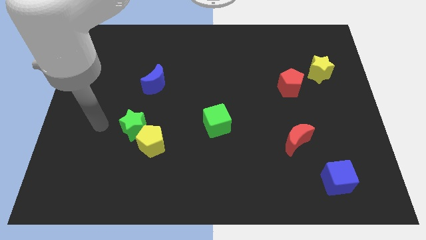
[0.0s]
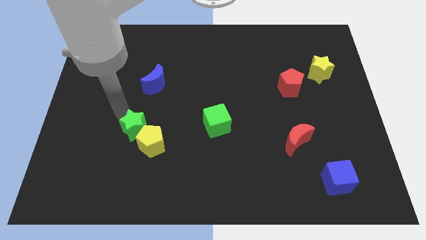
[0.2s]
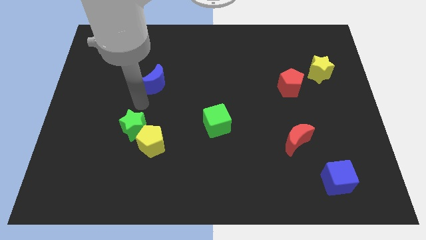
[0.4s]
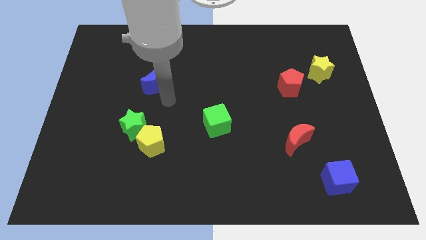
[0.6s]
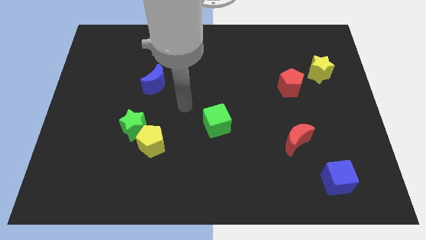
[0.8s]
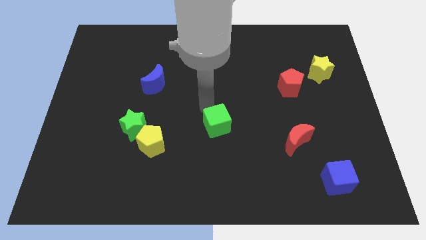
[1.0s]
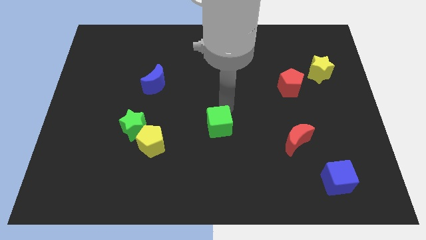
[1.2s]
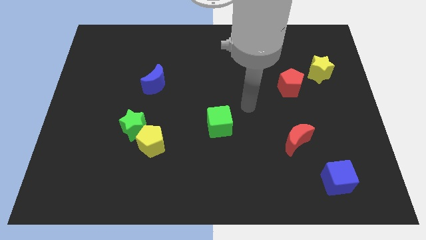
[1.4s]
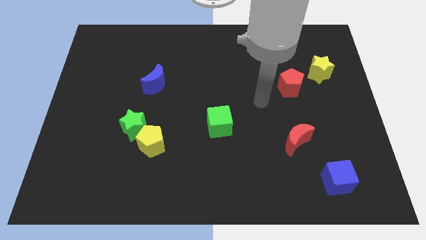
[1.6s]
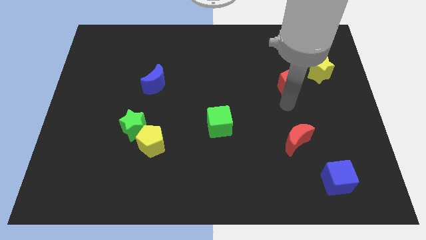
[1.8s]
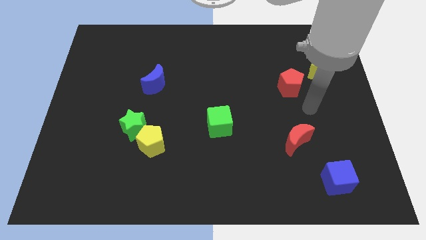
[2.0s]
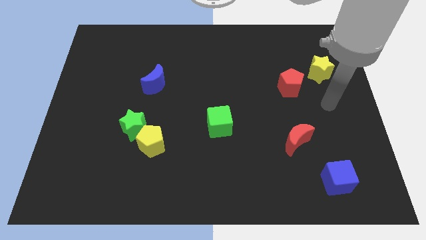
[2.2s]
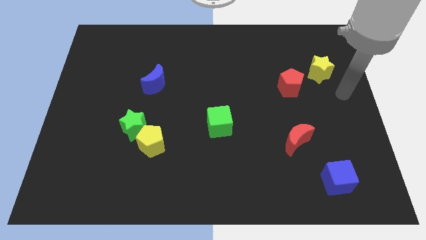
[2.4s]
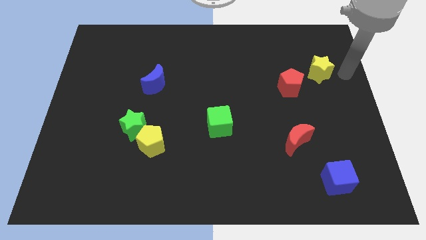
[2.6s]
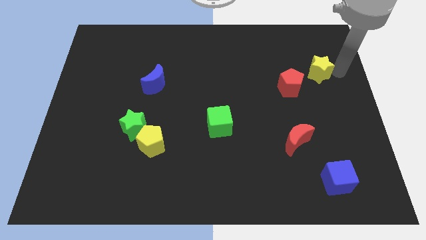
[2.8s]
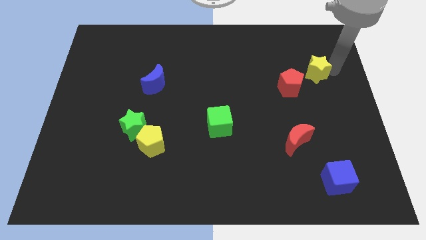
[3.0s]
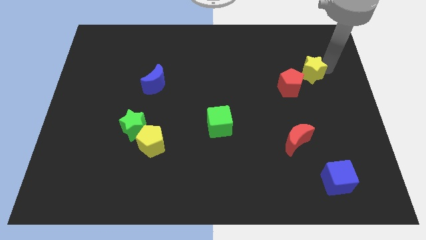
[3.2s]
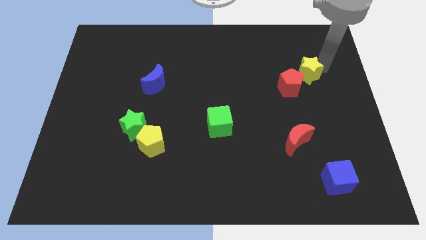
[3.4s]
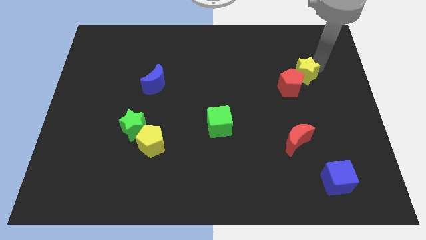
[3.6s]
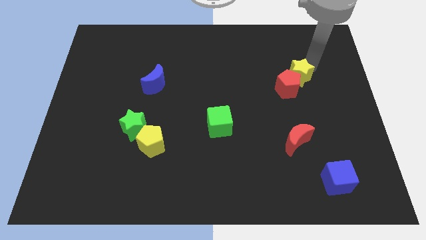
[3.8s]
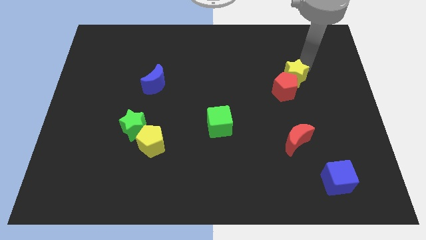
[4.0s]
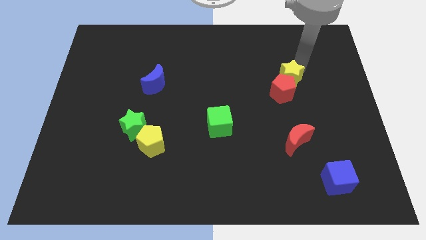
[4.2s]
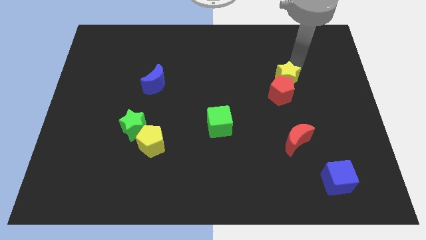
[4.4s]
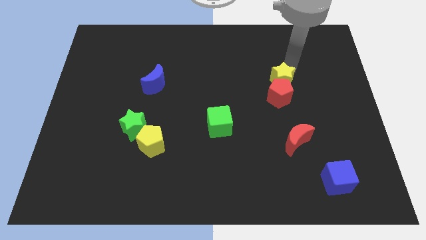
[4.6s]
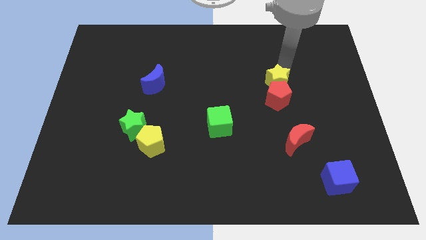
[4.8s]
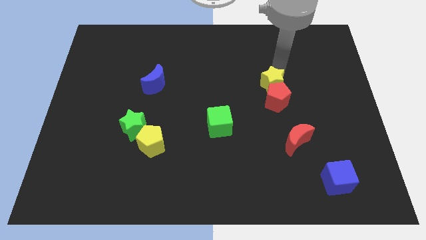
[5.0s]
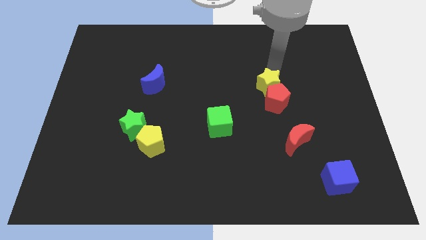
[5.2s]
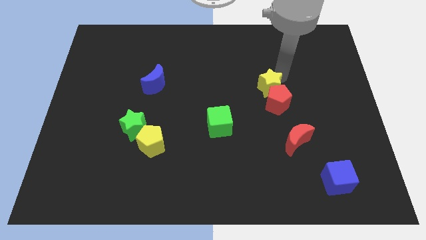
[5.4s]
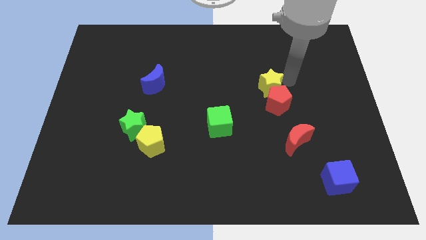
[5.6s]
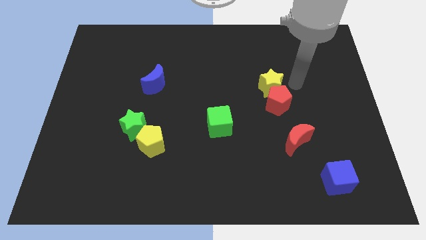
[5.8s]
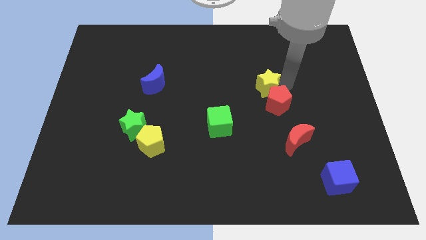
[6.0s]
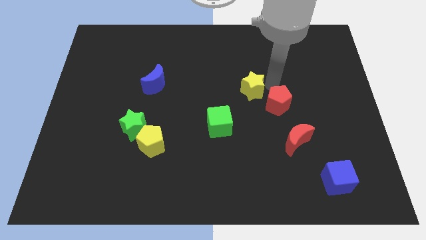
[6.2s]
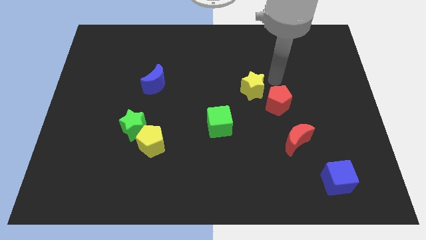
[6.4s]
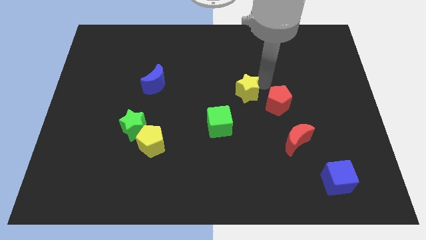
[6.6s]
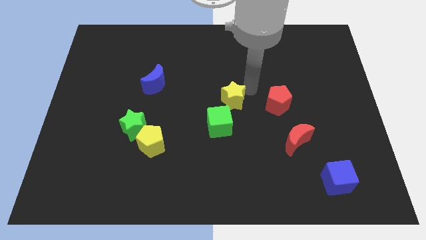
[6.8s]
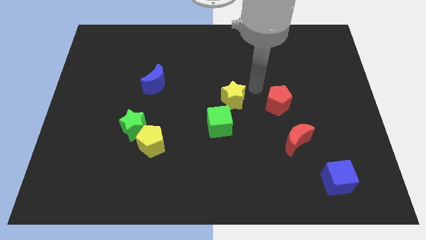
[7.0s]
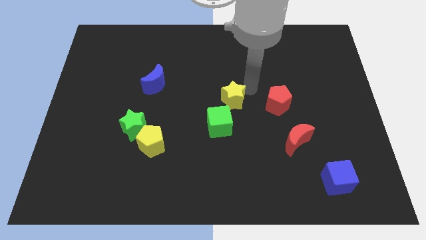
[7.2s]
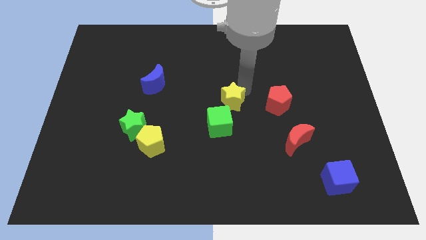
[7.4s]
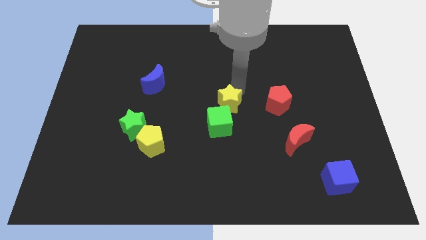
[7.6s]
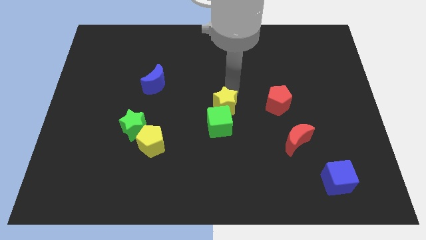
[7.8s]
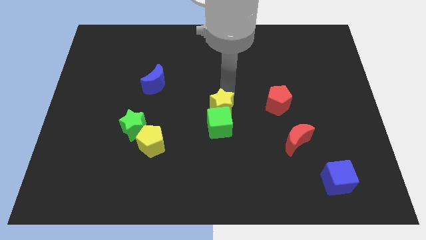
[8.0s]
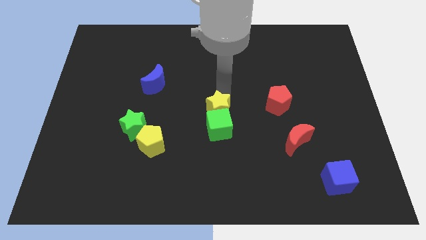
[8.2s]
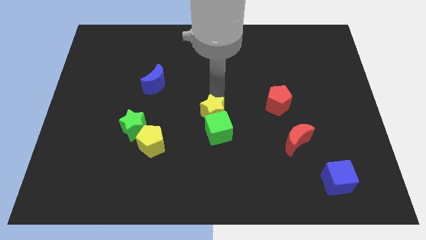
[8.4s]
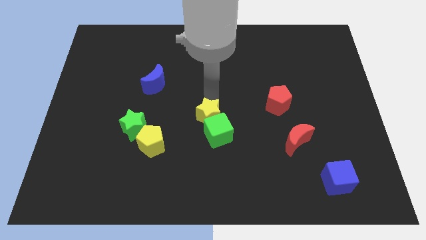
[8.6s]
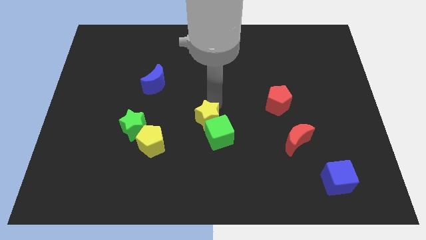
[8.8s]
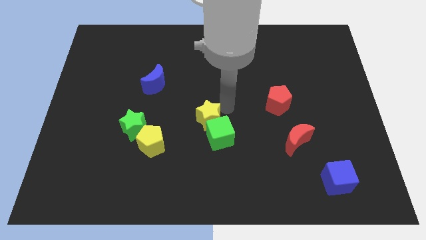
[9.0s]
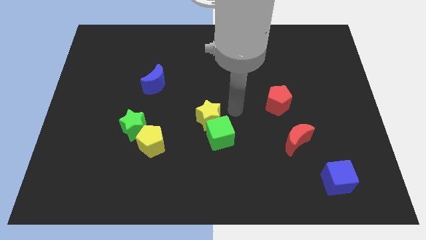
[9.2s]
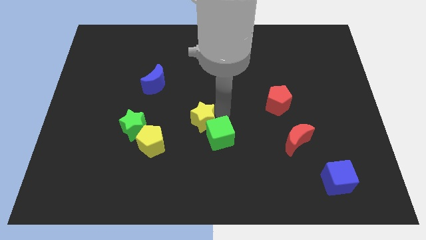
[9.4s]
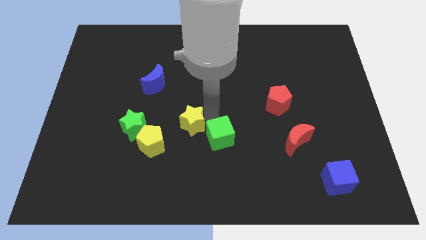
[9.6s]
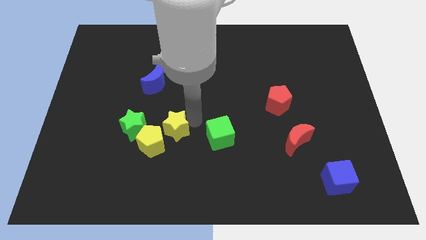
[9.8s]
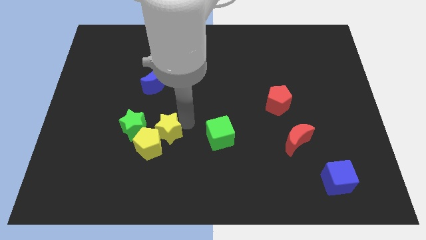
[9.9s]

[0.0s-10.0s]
push the yellow star next to the yellow pentagon

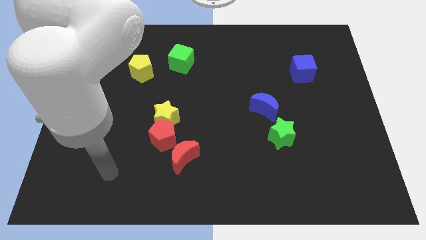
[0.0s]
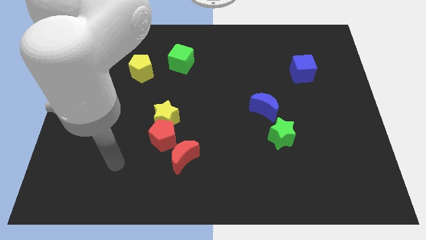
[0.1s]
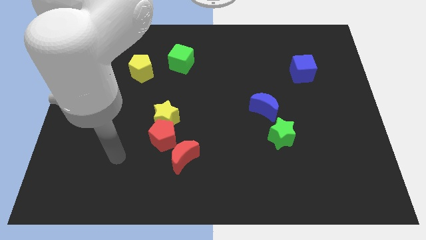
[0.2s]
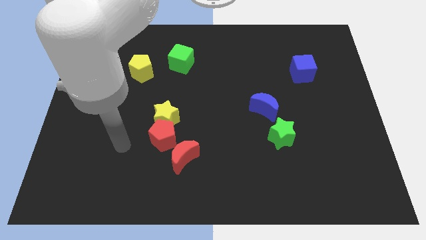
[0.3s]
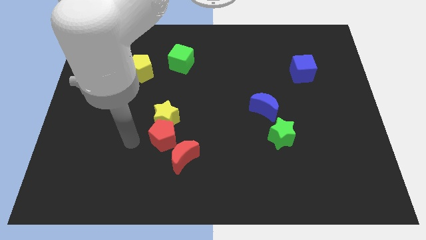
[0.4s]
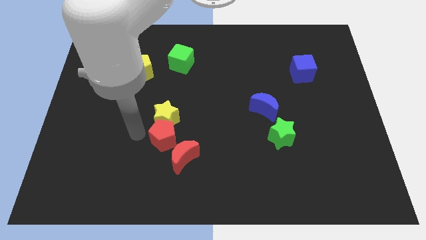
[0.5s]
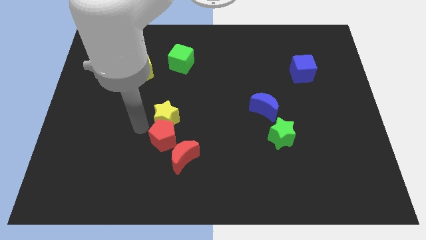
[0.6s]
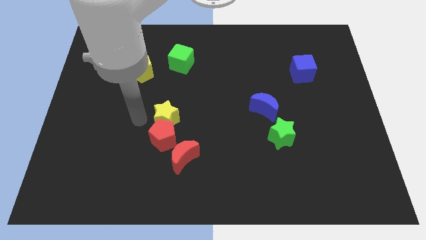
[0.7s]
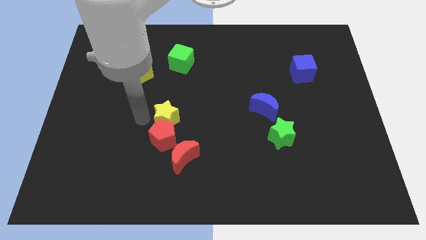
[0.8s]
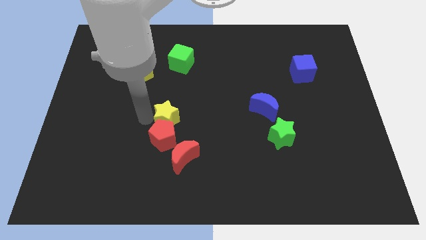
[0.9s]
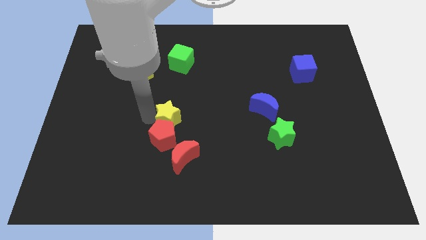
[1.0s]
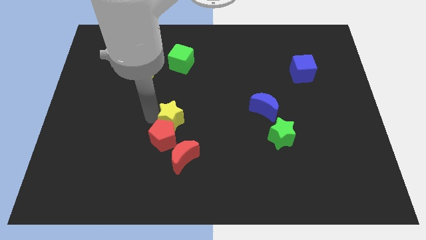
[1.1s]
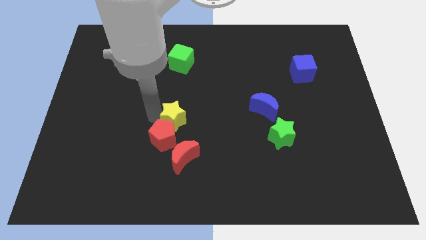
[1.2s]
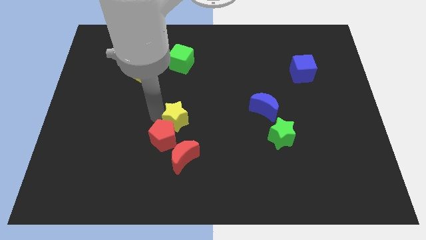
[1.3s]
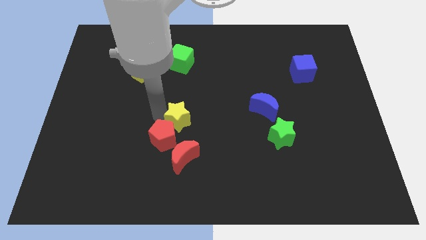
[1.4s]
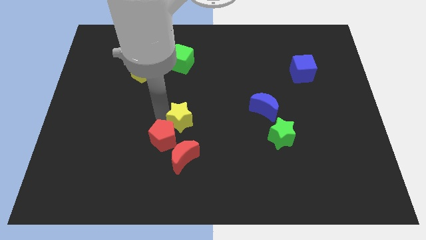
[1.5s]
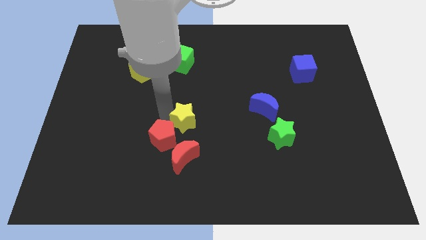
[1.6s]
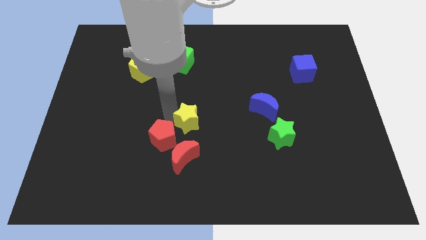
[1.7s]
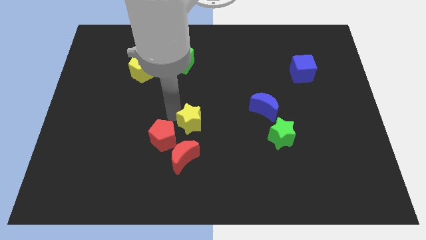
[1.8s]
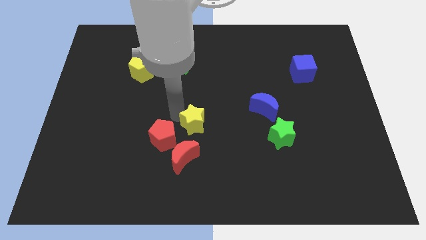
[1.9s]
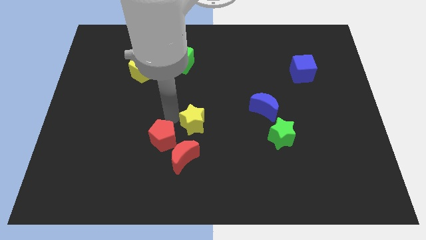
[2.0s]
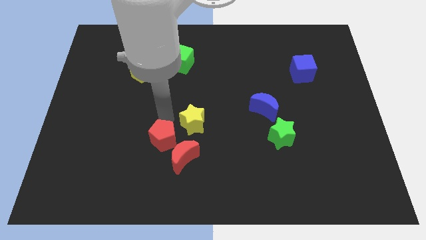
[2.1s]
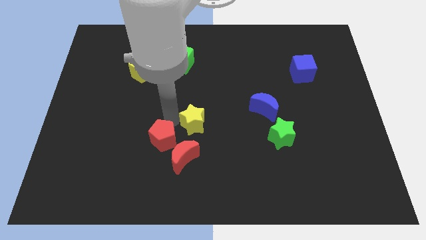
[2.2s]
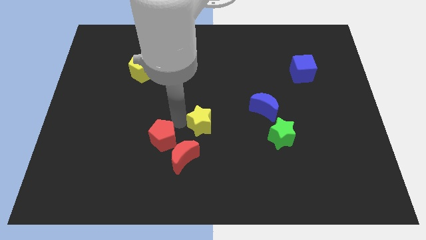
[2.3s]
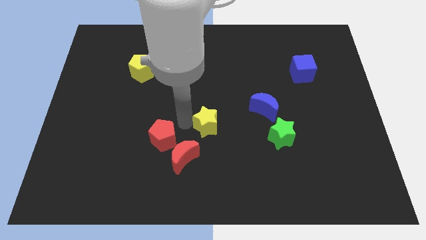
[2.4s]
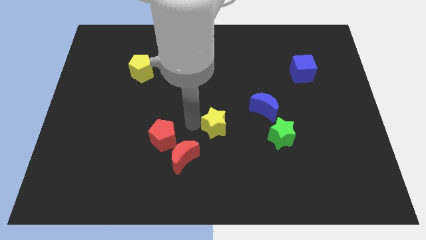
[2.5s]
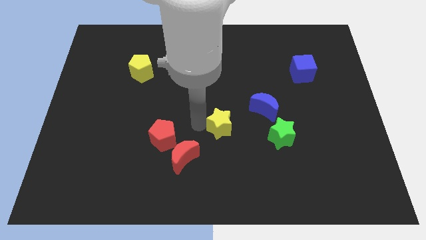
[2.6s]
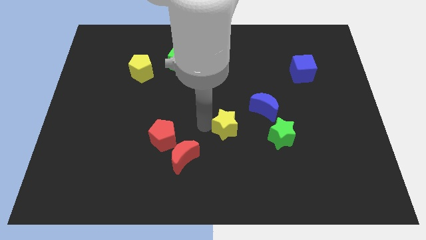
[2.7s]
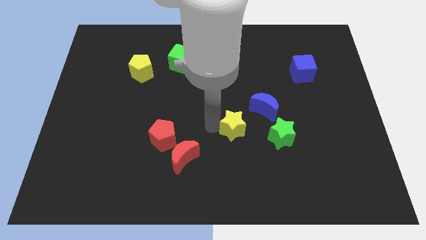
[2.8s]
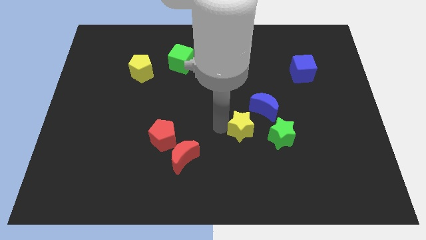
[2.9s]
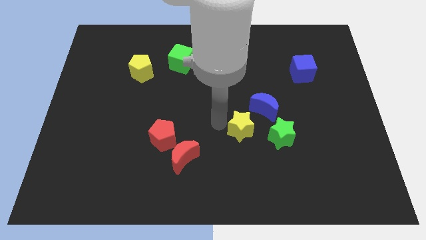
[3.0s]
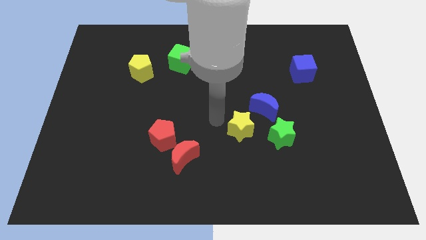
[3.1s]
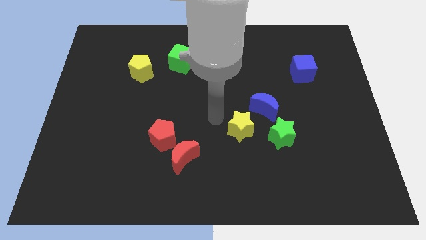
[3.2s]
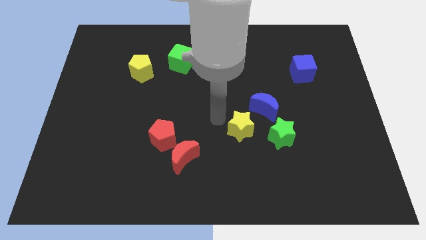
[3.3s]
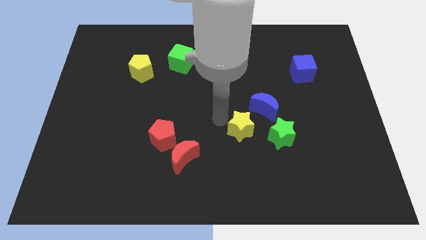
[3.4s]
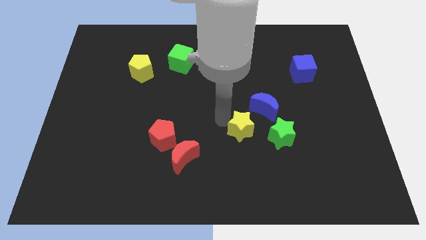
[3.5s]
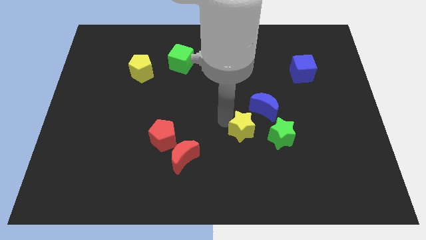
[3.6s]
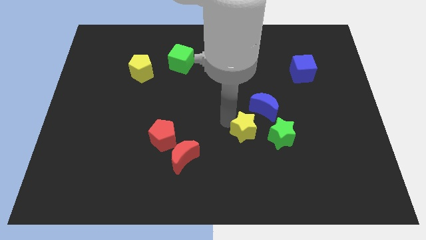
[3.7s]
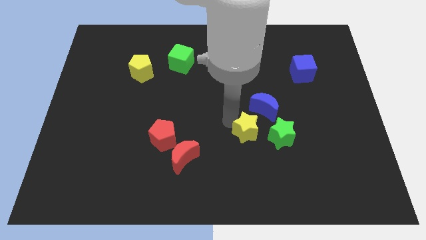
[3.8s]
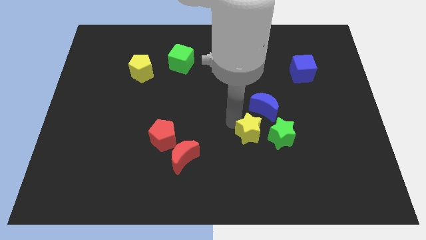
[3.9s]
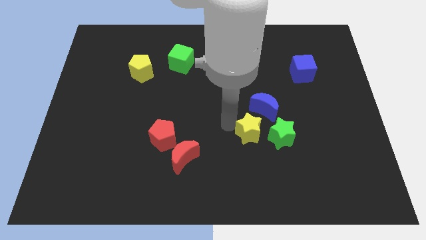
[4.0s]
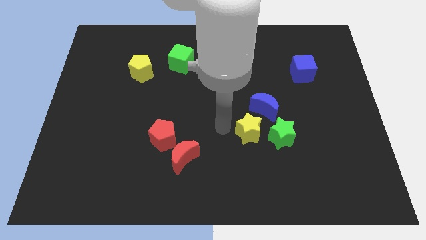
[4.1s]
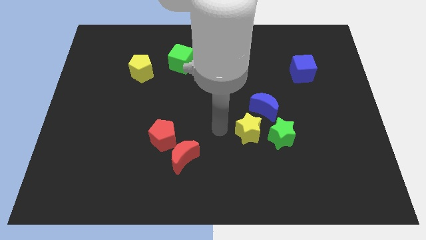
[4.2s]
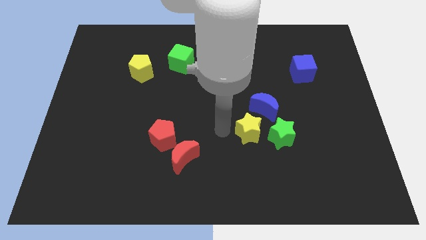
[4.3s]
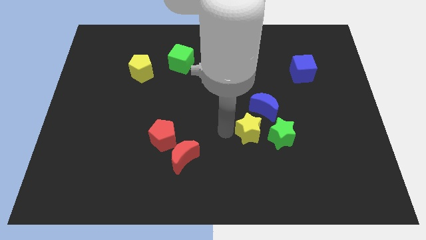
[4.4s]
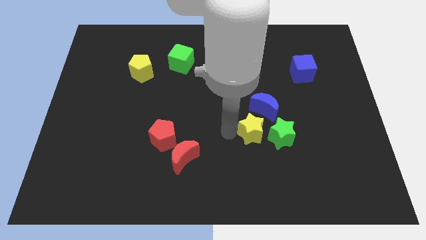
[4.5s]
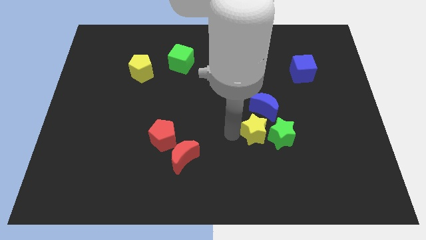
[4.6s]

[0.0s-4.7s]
push the yellow star towards the green star
